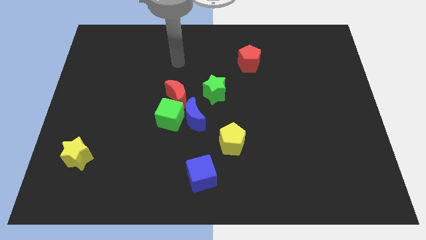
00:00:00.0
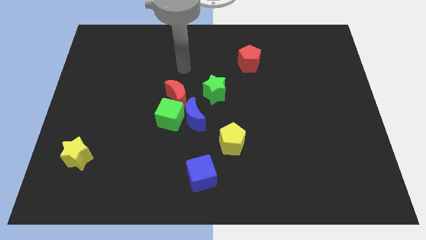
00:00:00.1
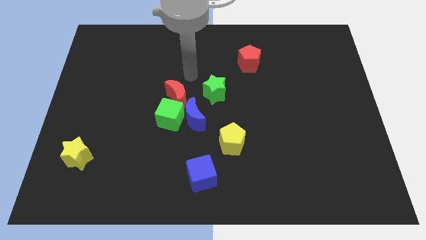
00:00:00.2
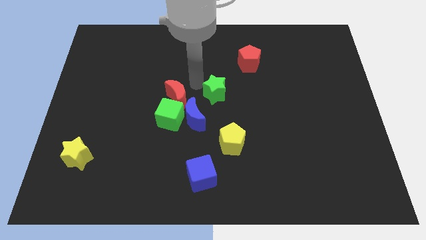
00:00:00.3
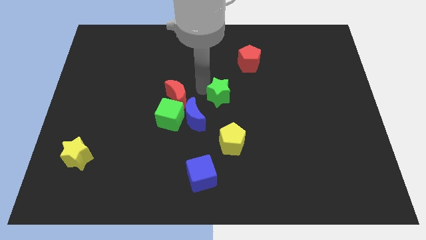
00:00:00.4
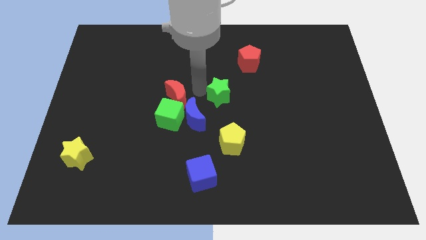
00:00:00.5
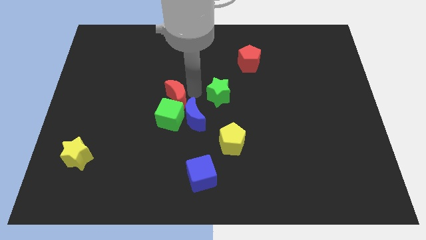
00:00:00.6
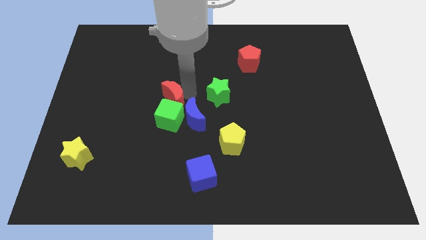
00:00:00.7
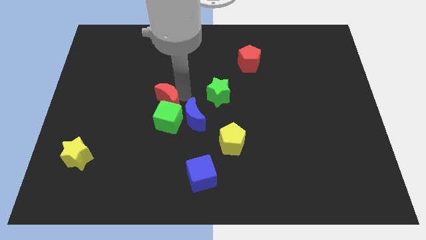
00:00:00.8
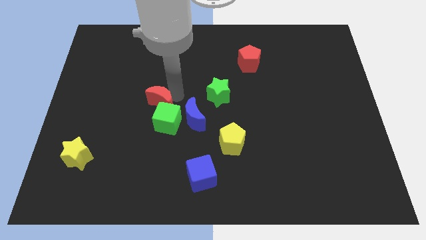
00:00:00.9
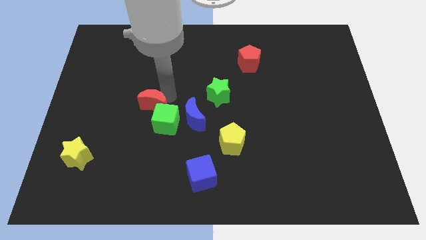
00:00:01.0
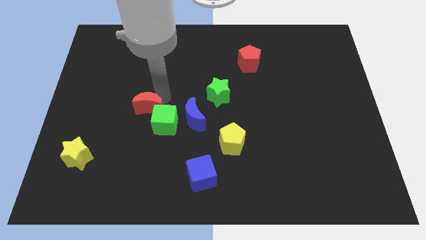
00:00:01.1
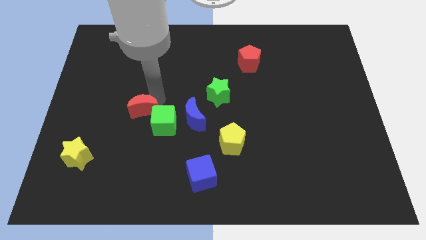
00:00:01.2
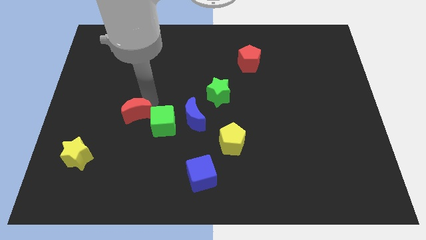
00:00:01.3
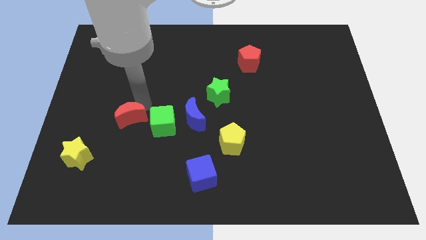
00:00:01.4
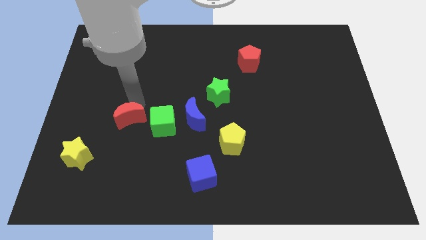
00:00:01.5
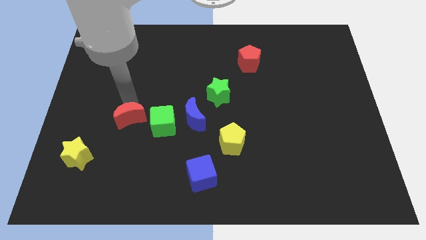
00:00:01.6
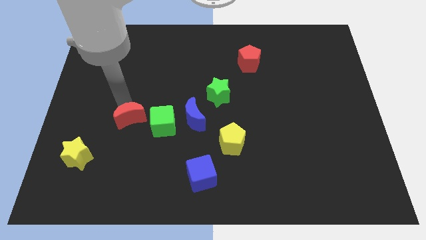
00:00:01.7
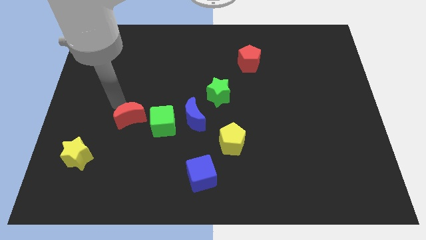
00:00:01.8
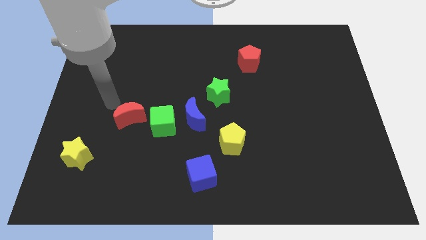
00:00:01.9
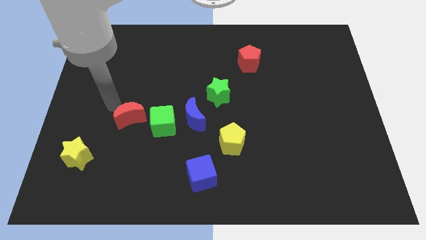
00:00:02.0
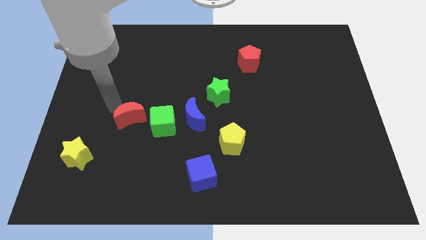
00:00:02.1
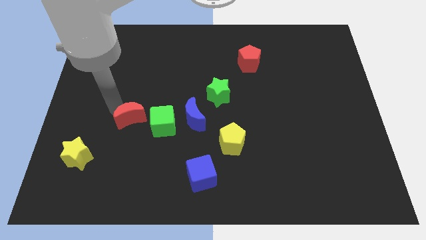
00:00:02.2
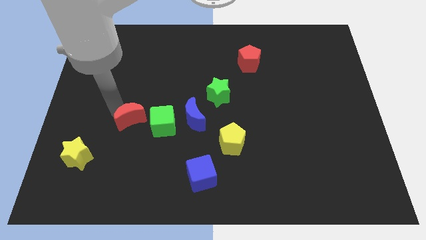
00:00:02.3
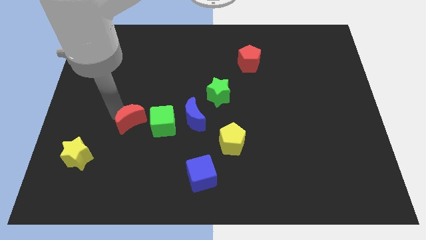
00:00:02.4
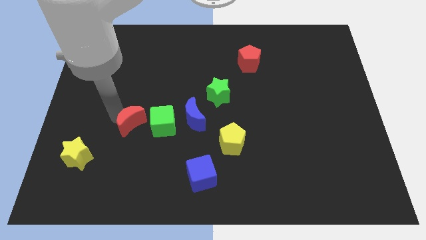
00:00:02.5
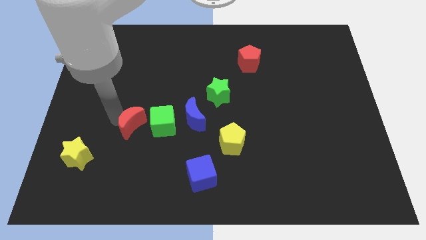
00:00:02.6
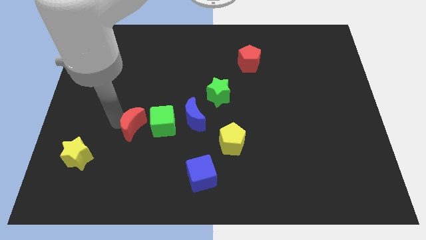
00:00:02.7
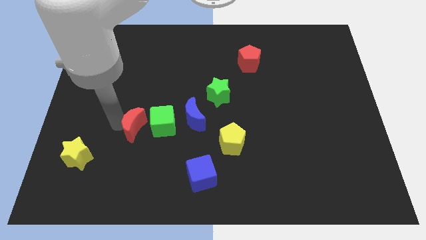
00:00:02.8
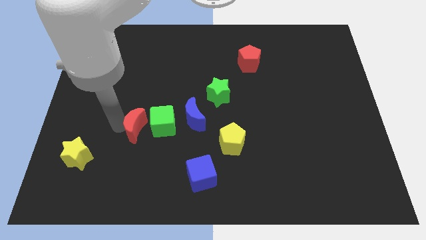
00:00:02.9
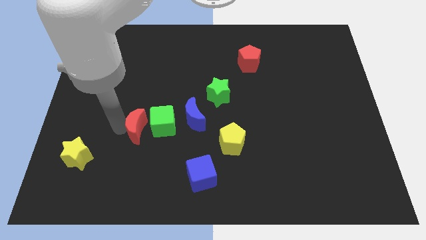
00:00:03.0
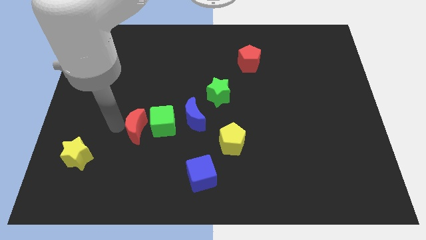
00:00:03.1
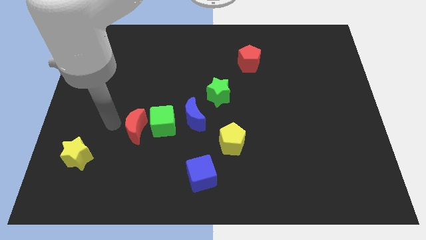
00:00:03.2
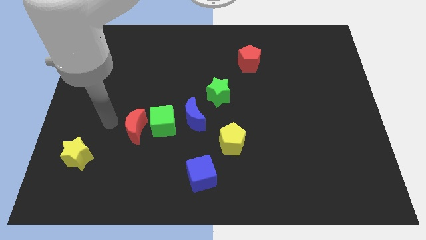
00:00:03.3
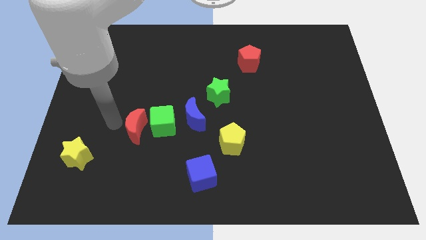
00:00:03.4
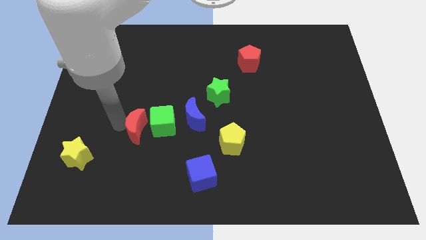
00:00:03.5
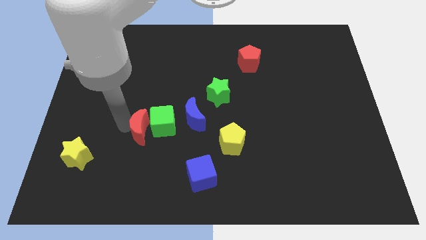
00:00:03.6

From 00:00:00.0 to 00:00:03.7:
slightly push the red moon down

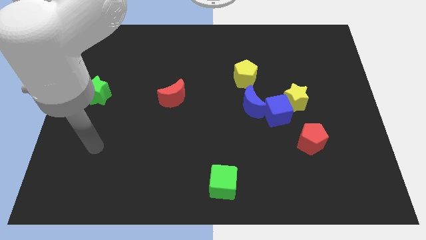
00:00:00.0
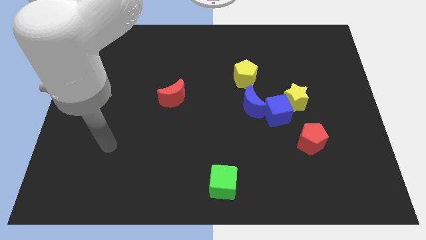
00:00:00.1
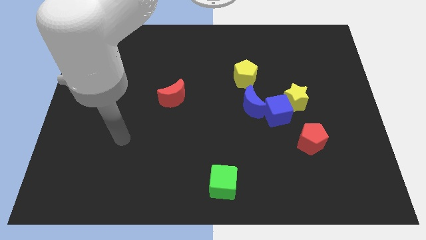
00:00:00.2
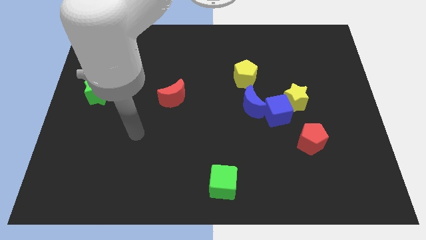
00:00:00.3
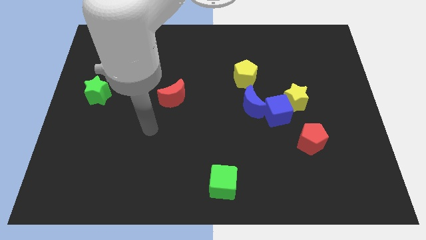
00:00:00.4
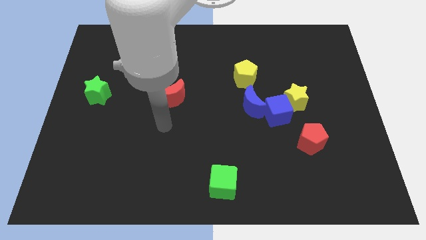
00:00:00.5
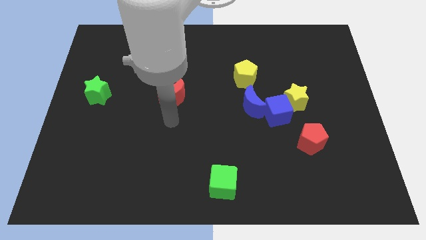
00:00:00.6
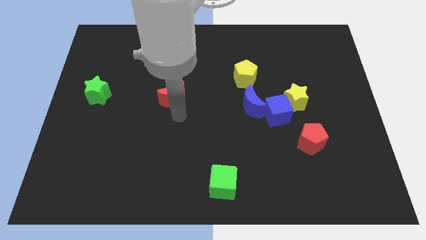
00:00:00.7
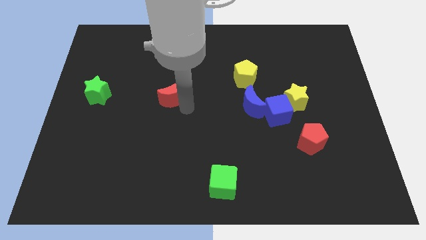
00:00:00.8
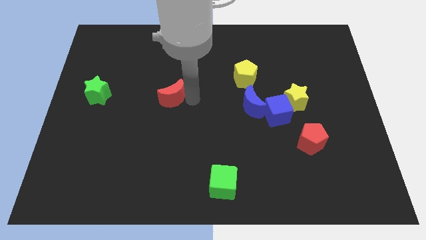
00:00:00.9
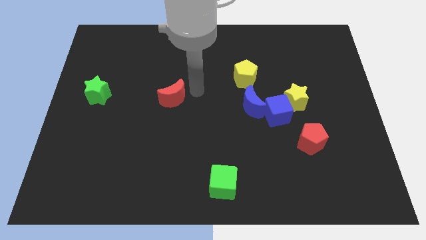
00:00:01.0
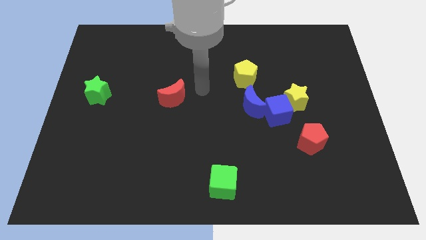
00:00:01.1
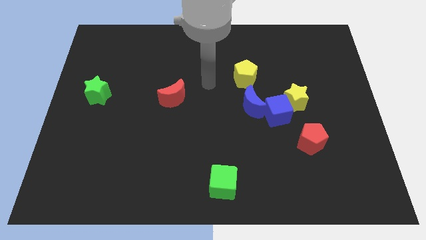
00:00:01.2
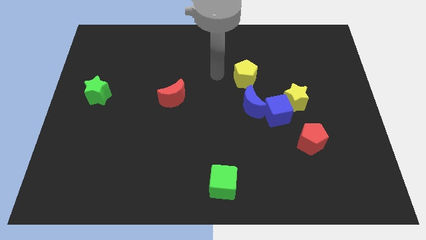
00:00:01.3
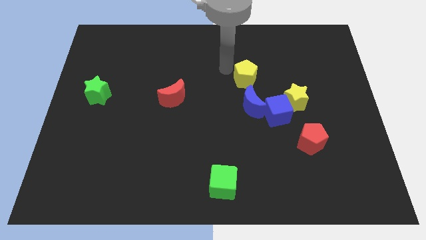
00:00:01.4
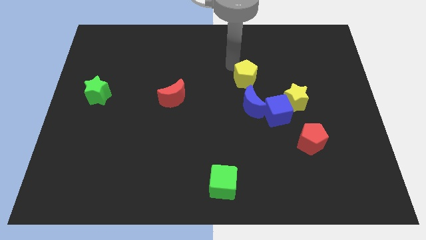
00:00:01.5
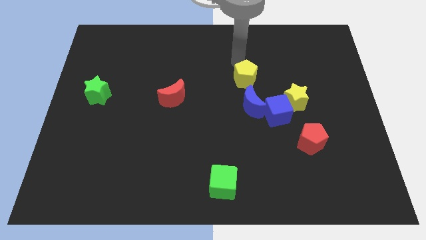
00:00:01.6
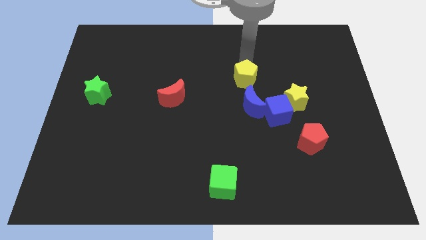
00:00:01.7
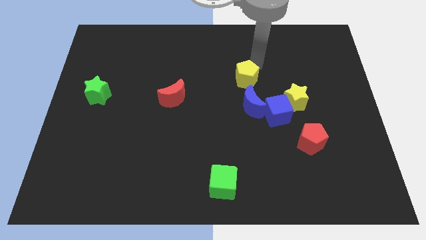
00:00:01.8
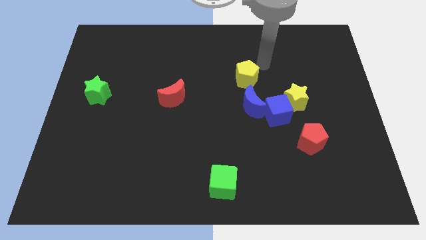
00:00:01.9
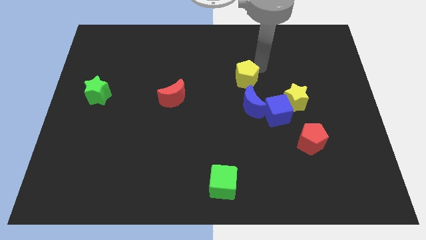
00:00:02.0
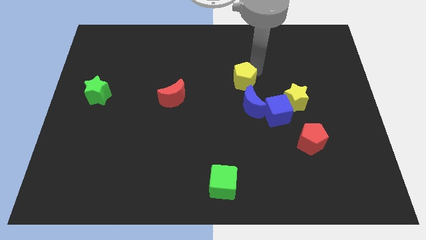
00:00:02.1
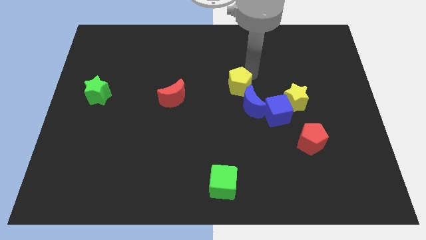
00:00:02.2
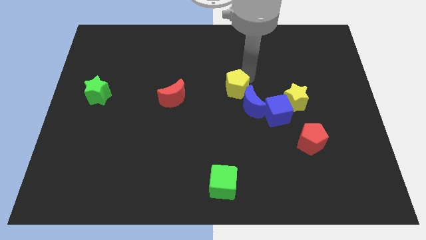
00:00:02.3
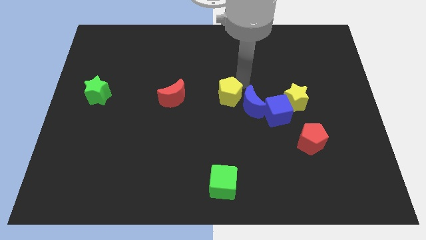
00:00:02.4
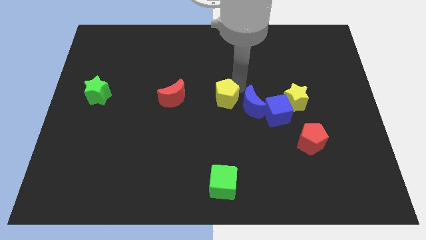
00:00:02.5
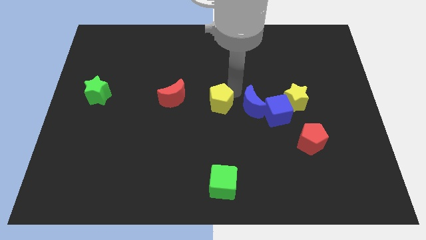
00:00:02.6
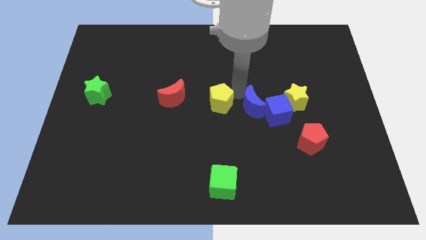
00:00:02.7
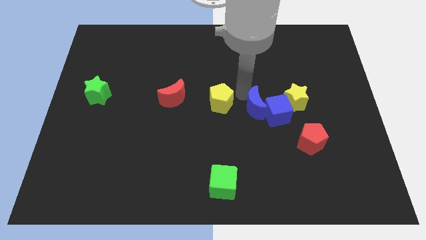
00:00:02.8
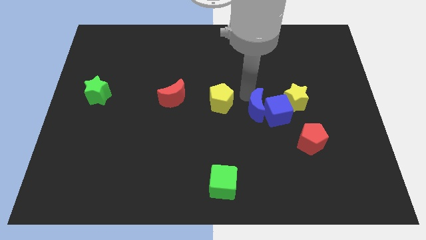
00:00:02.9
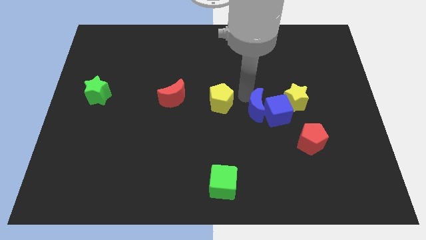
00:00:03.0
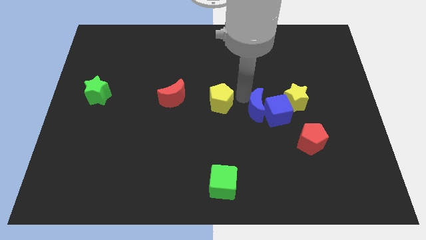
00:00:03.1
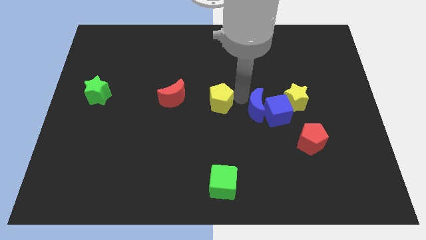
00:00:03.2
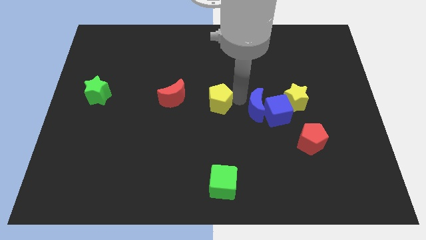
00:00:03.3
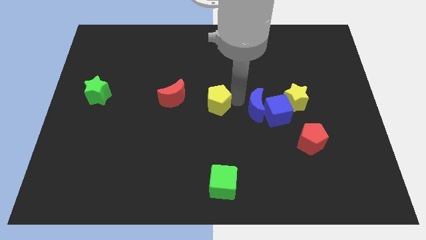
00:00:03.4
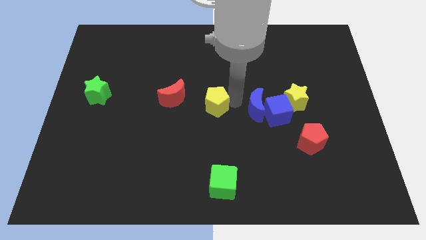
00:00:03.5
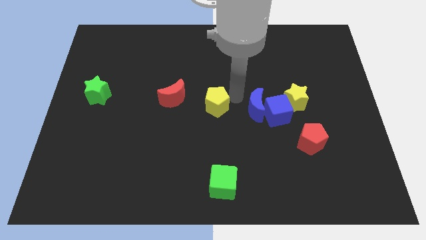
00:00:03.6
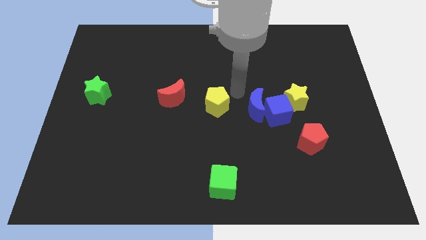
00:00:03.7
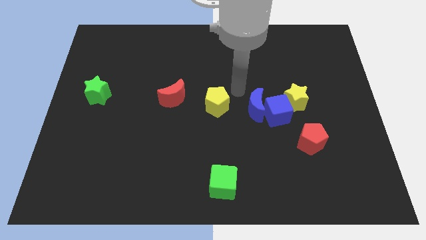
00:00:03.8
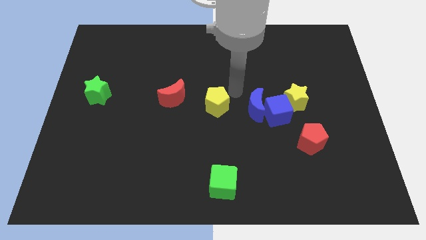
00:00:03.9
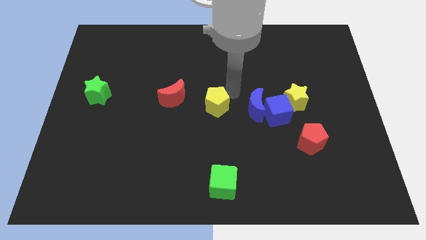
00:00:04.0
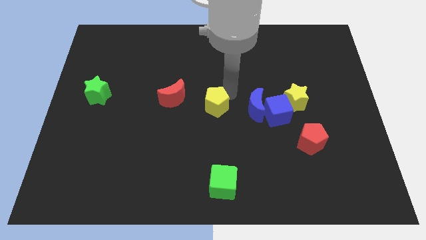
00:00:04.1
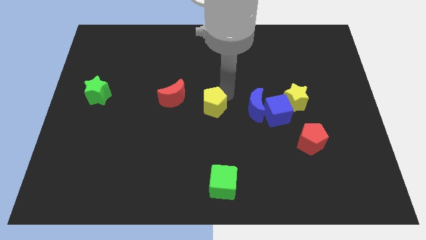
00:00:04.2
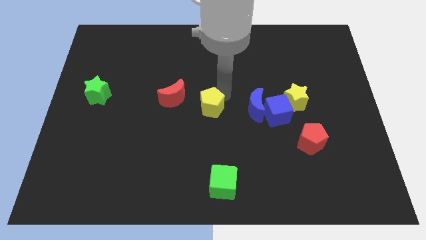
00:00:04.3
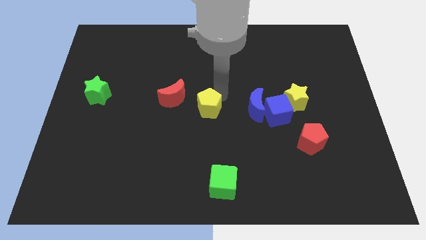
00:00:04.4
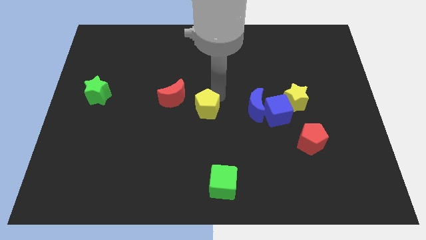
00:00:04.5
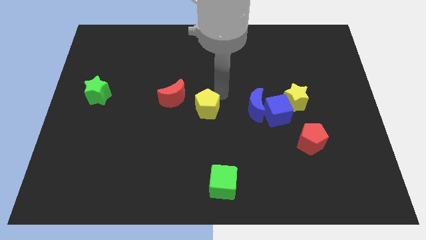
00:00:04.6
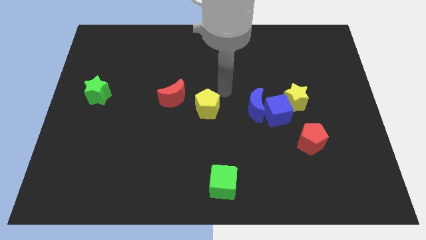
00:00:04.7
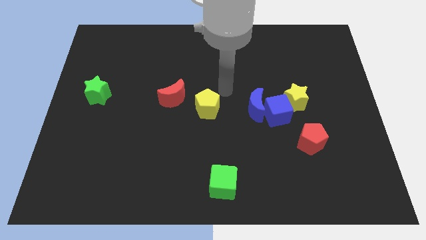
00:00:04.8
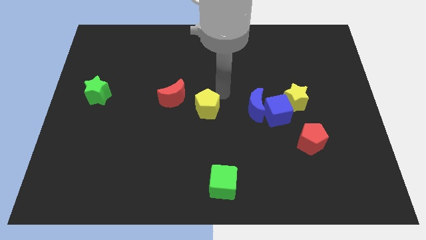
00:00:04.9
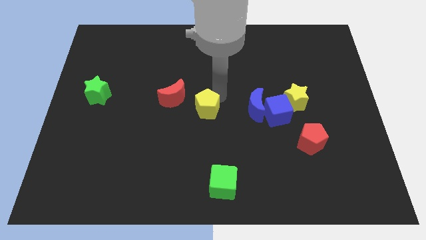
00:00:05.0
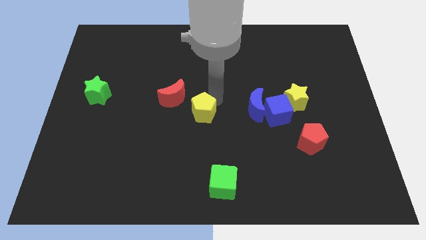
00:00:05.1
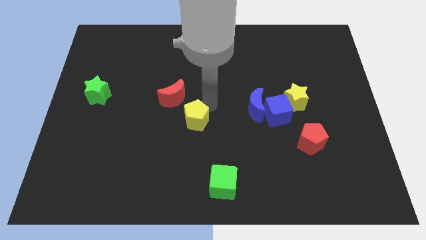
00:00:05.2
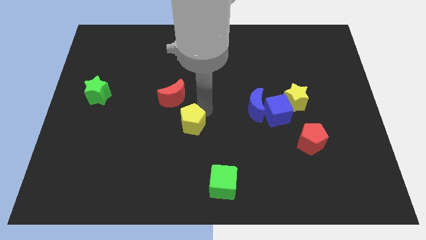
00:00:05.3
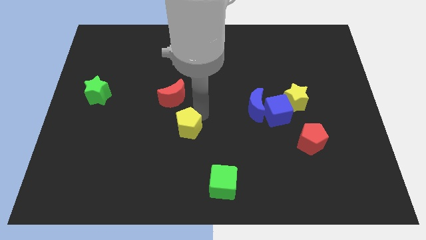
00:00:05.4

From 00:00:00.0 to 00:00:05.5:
push the yellow pentagon down and left diagonally
